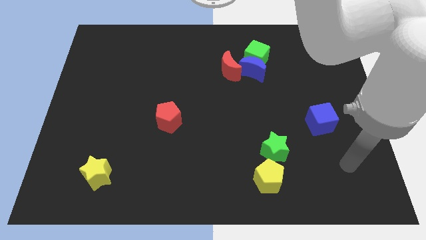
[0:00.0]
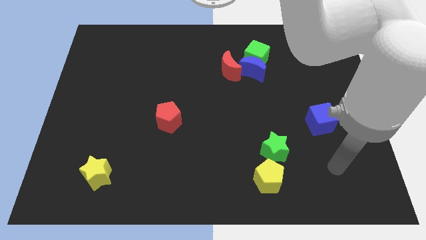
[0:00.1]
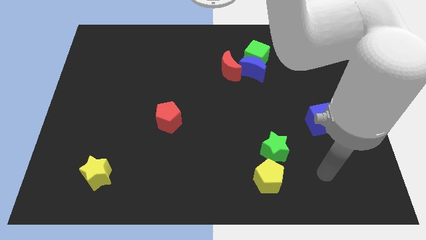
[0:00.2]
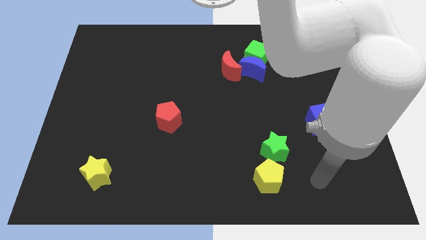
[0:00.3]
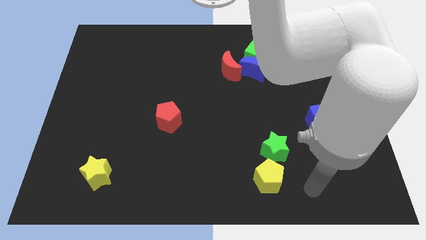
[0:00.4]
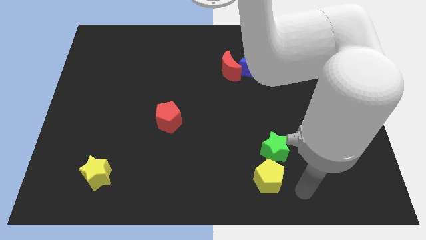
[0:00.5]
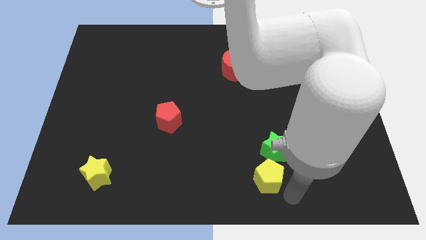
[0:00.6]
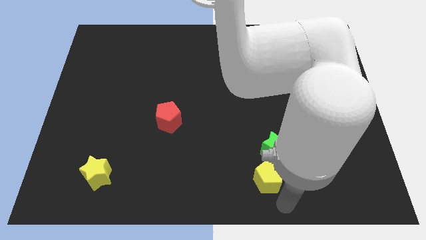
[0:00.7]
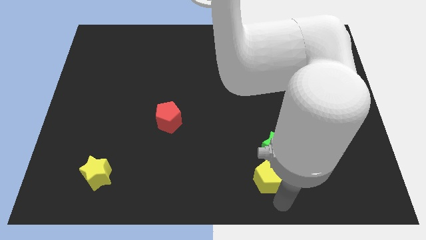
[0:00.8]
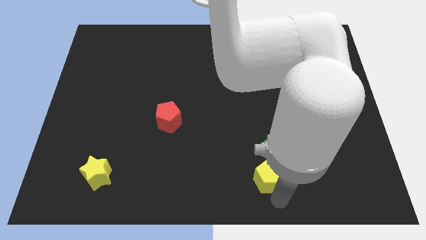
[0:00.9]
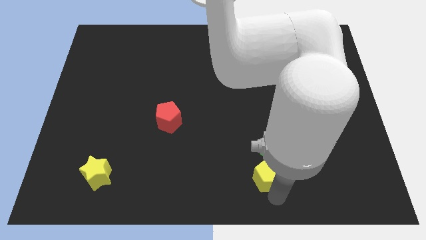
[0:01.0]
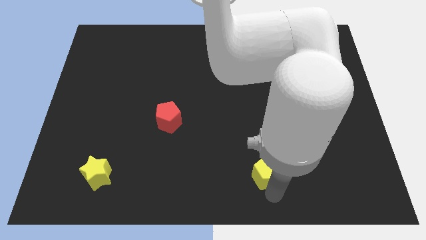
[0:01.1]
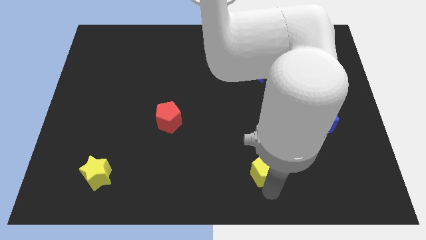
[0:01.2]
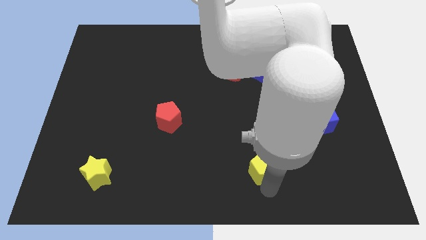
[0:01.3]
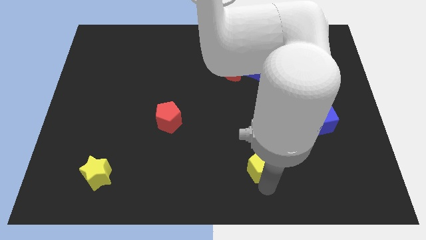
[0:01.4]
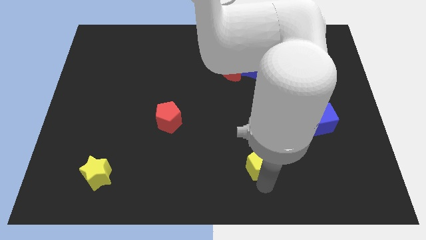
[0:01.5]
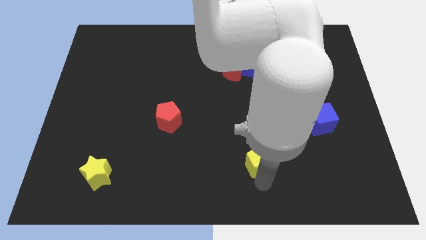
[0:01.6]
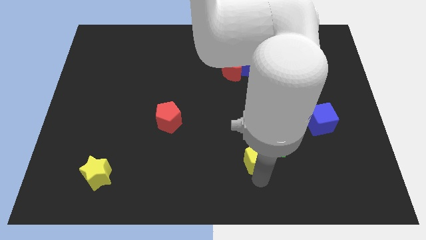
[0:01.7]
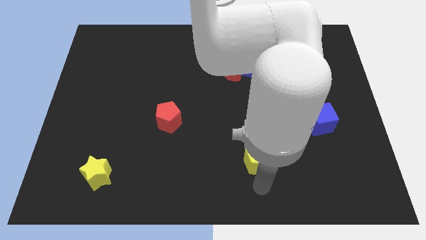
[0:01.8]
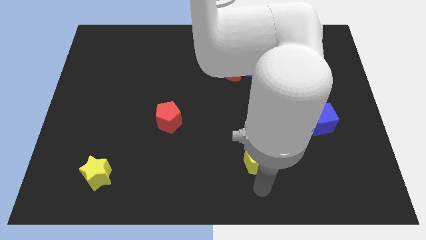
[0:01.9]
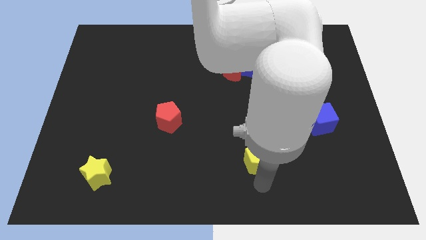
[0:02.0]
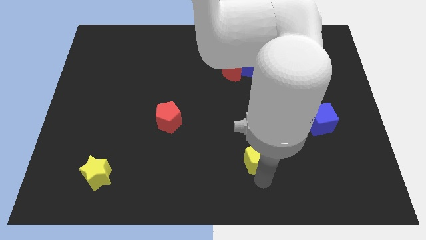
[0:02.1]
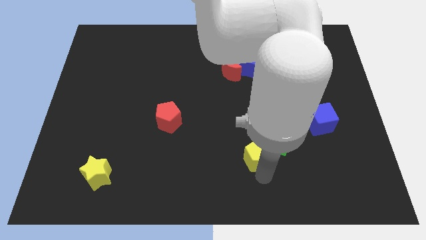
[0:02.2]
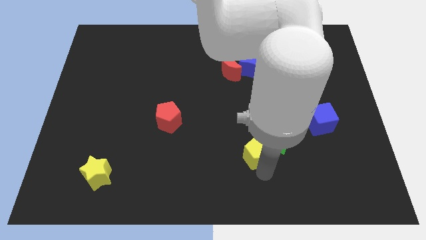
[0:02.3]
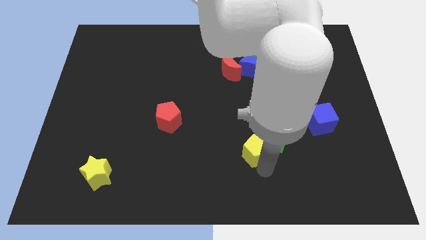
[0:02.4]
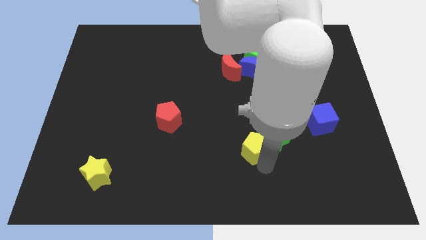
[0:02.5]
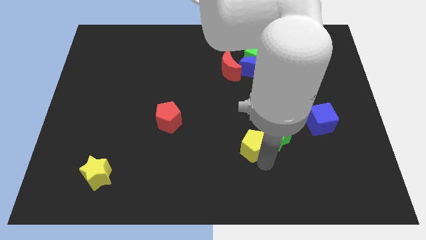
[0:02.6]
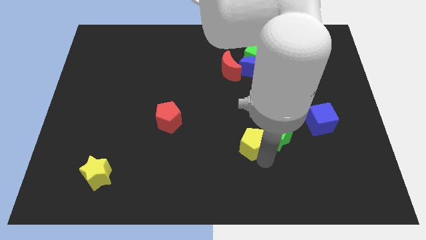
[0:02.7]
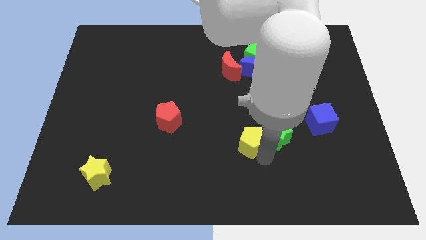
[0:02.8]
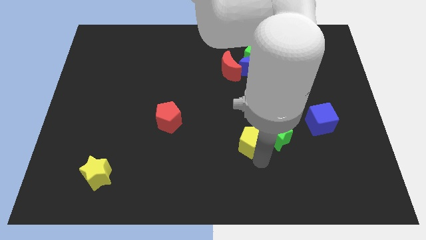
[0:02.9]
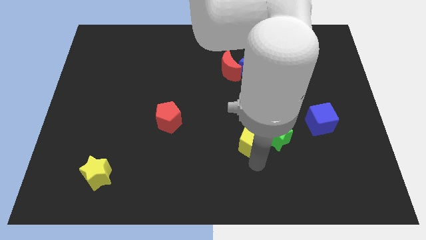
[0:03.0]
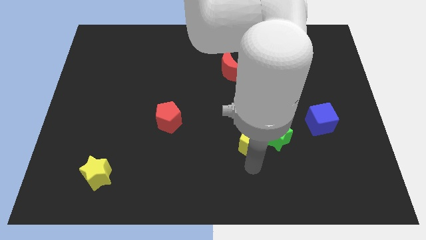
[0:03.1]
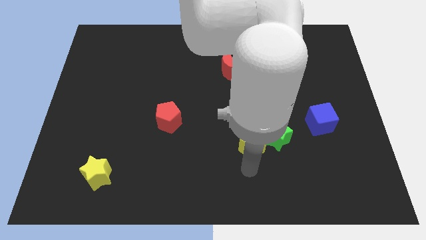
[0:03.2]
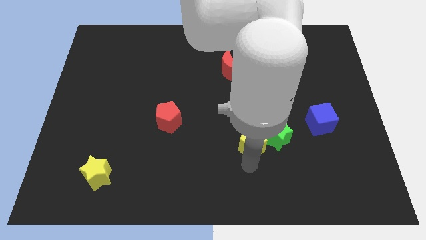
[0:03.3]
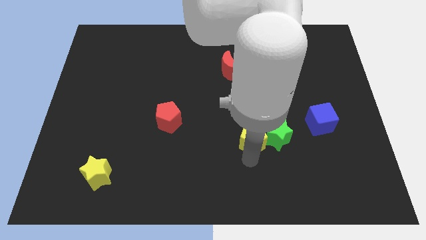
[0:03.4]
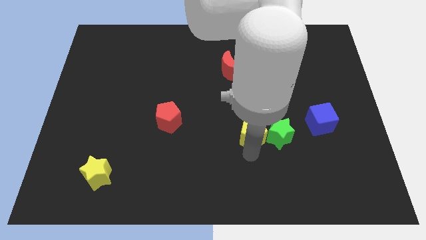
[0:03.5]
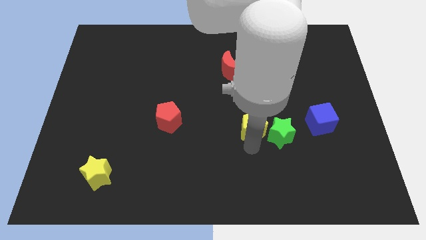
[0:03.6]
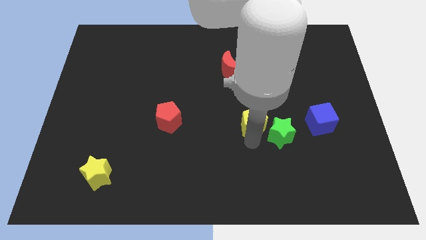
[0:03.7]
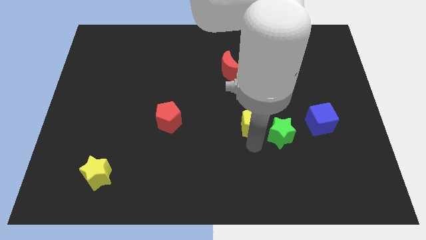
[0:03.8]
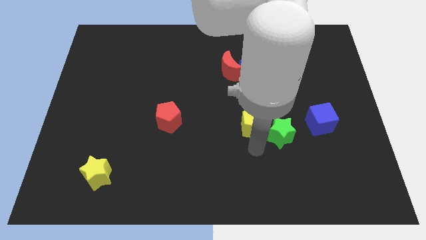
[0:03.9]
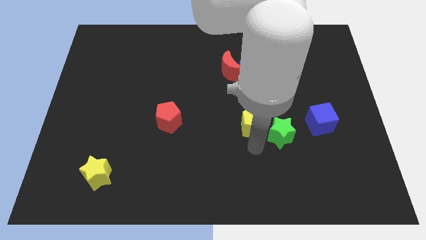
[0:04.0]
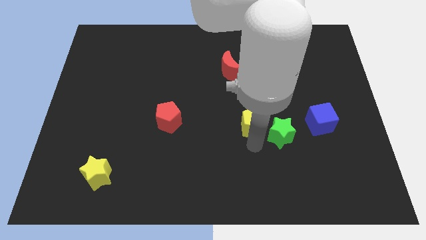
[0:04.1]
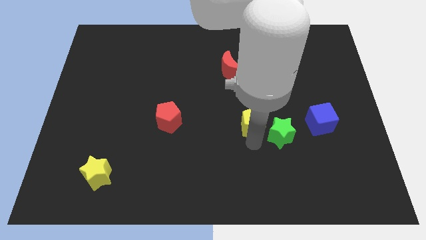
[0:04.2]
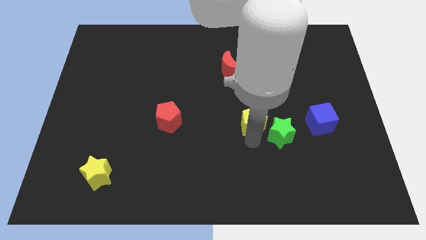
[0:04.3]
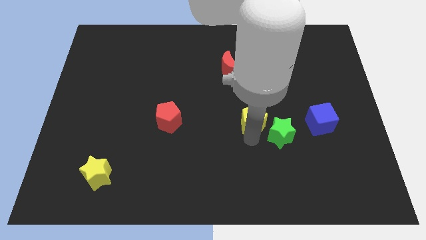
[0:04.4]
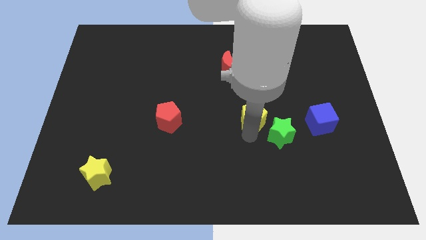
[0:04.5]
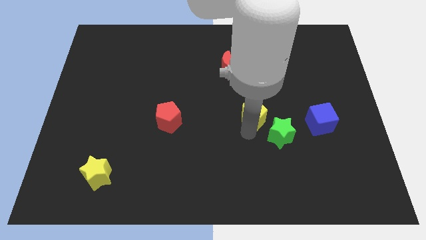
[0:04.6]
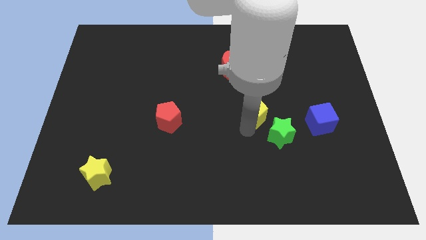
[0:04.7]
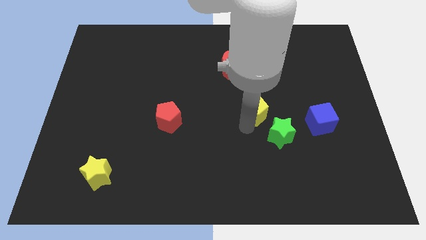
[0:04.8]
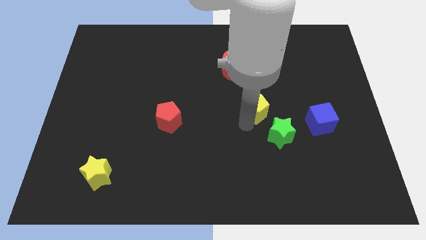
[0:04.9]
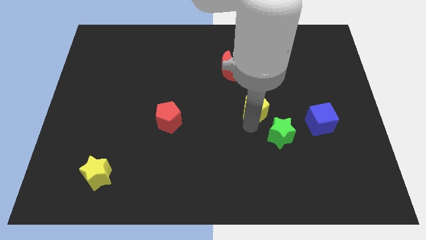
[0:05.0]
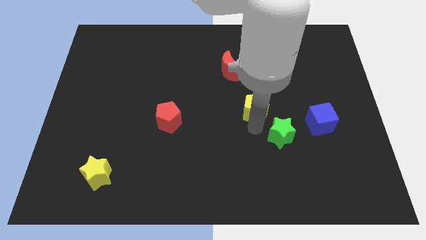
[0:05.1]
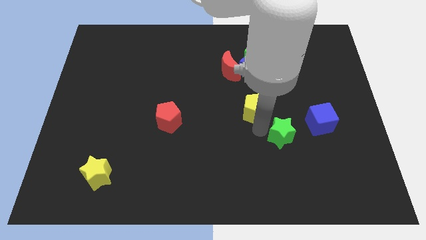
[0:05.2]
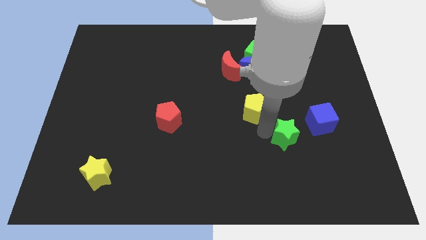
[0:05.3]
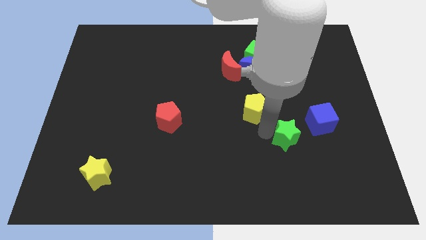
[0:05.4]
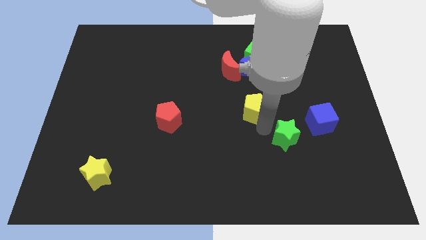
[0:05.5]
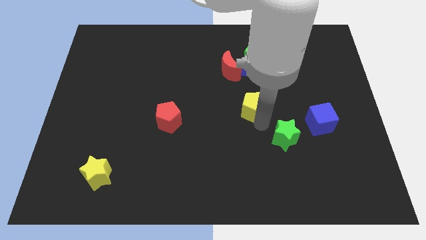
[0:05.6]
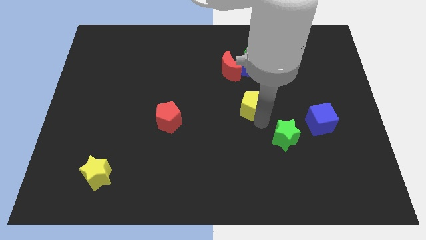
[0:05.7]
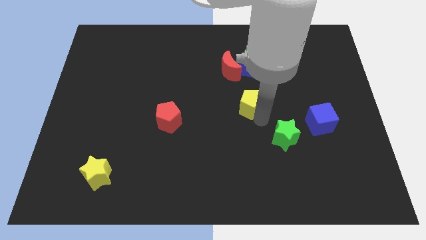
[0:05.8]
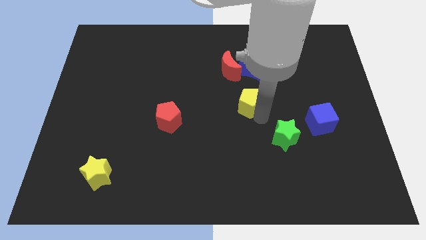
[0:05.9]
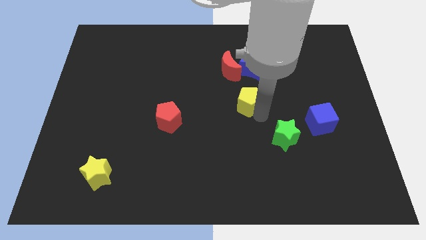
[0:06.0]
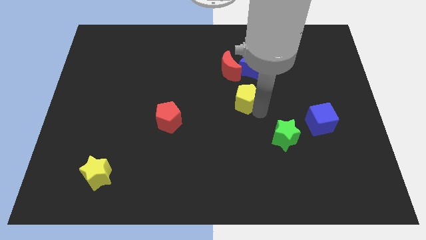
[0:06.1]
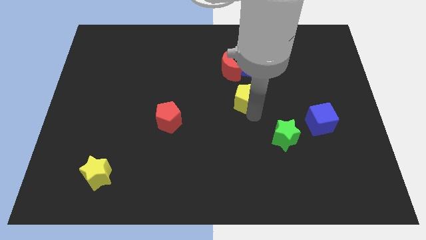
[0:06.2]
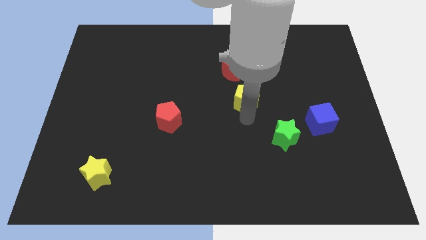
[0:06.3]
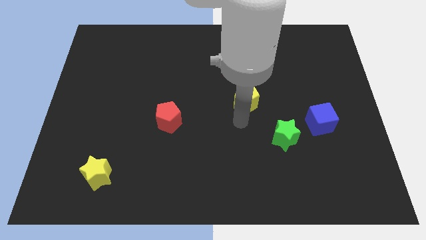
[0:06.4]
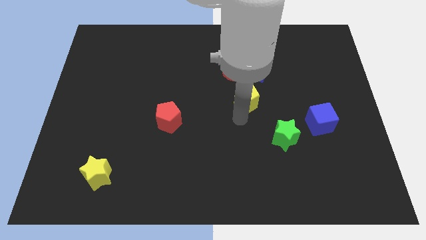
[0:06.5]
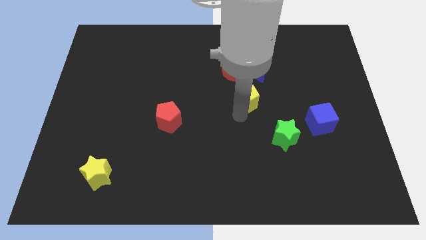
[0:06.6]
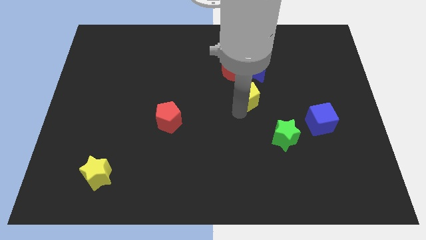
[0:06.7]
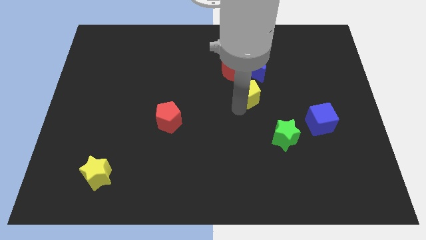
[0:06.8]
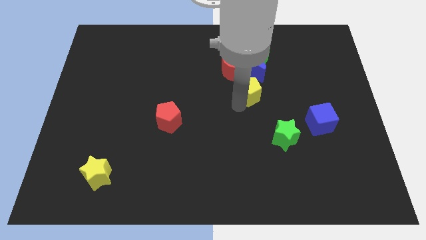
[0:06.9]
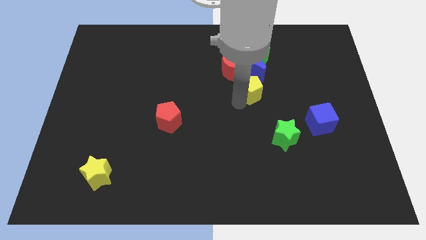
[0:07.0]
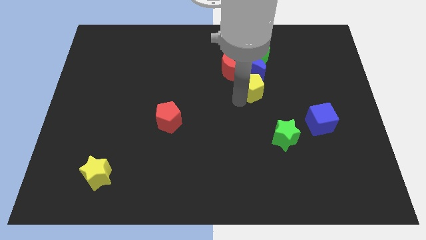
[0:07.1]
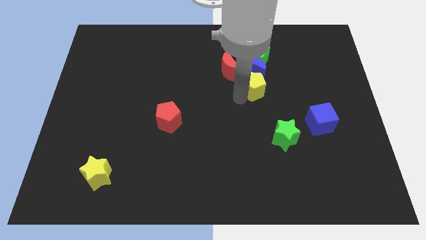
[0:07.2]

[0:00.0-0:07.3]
put the yellow pentagon to the blue moon
